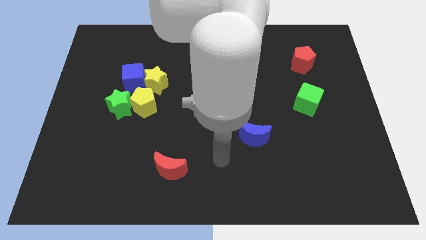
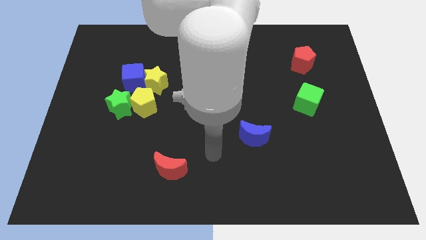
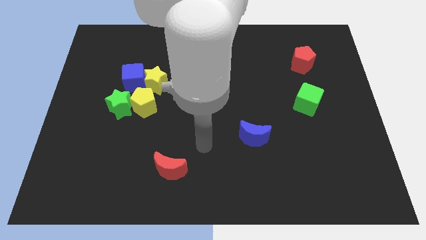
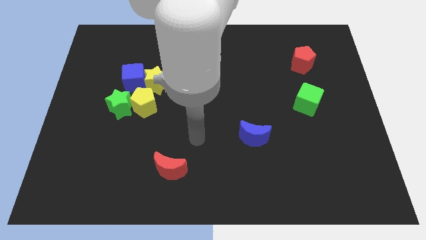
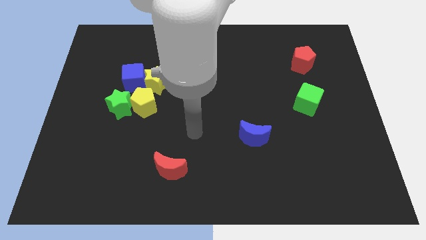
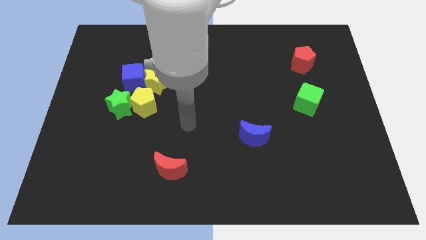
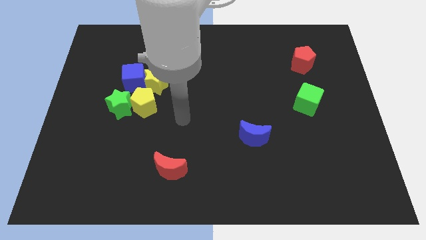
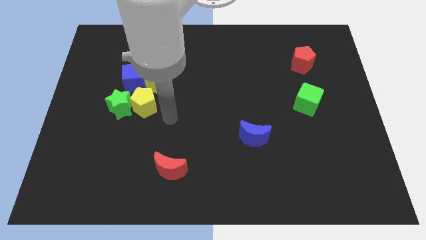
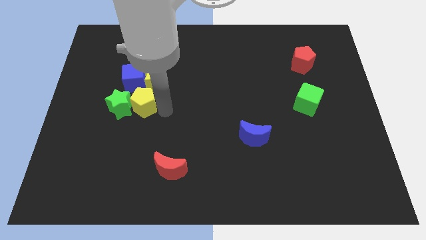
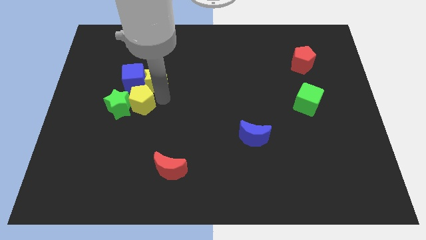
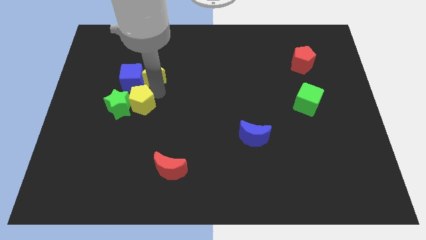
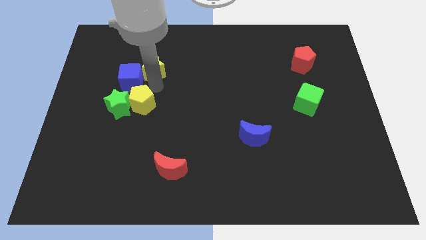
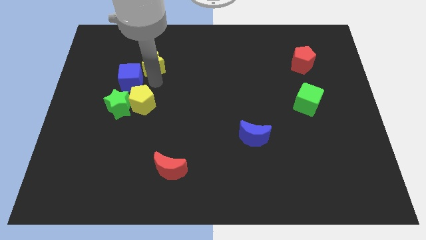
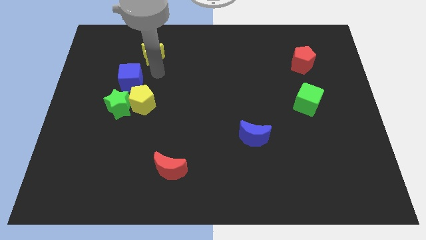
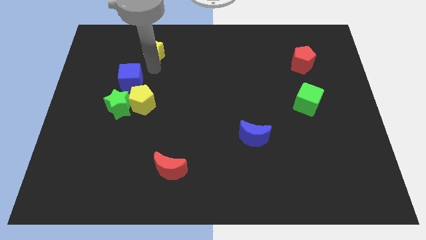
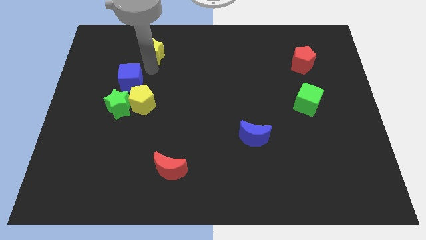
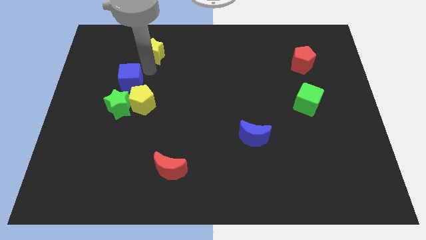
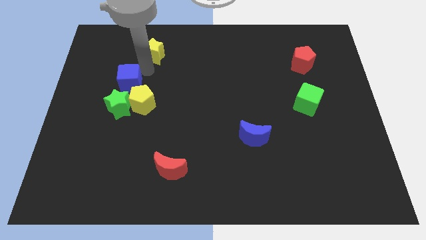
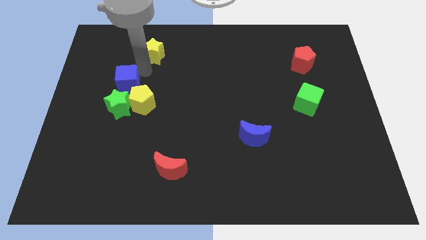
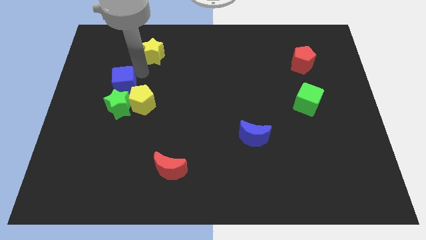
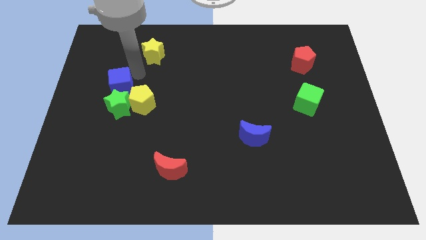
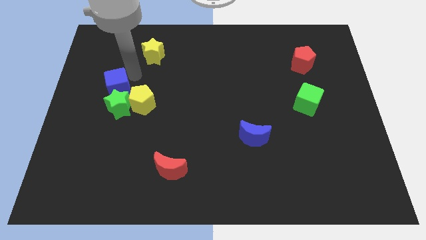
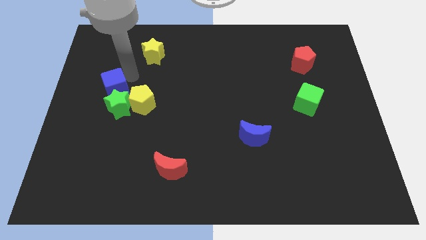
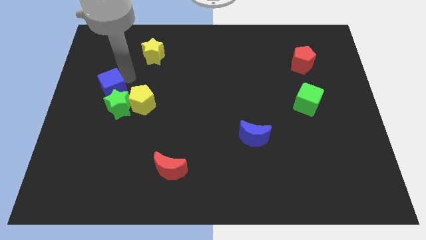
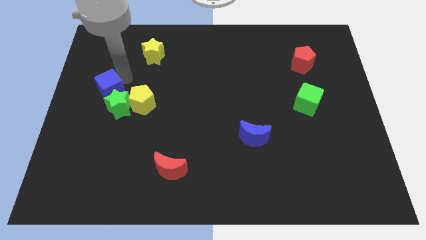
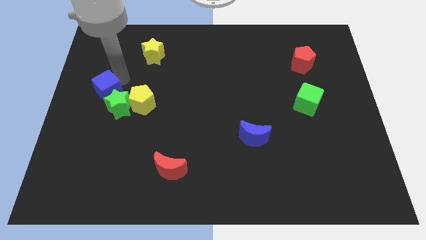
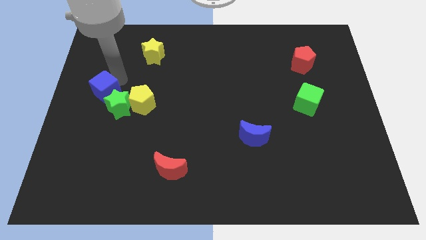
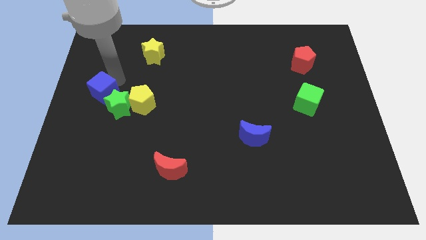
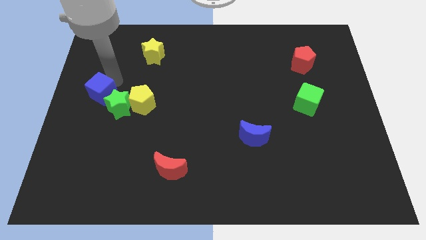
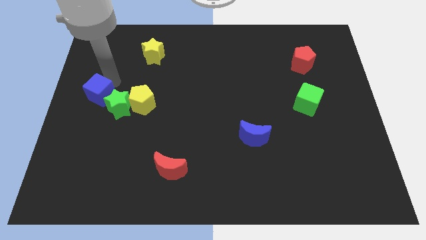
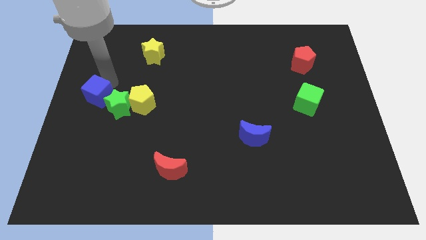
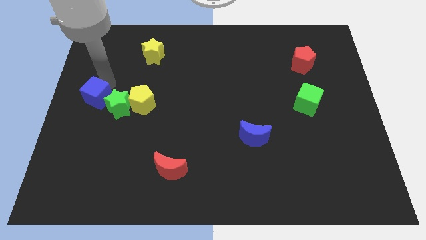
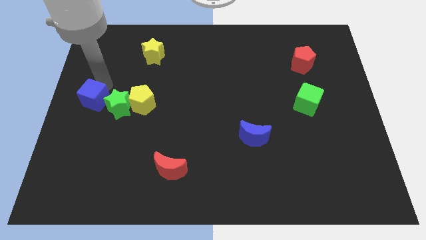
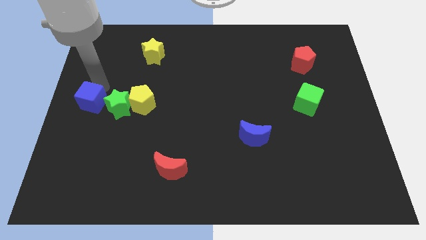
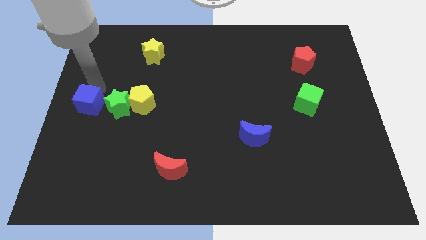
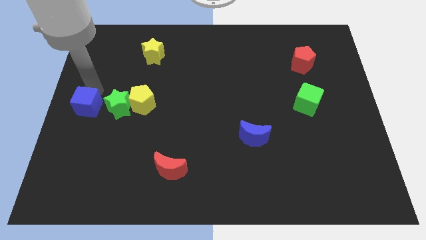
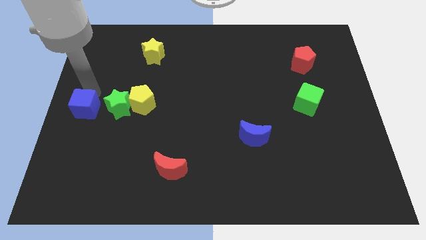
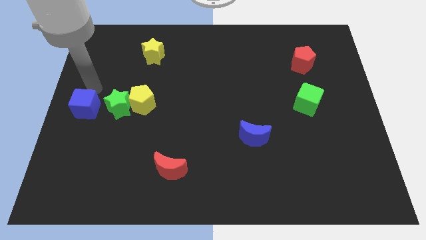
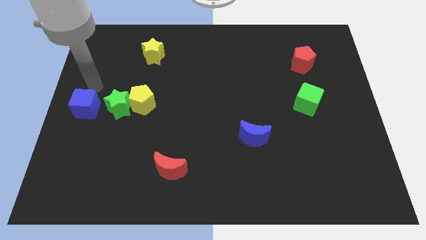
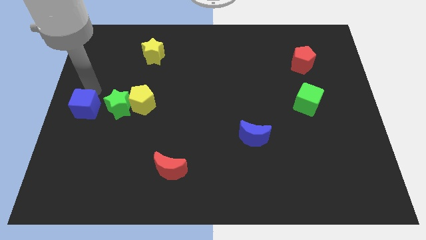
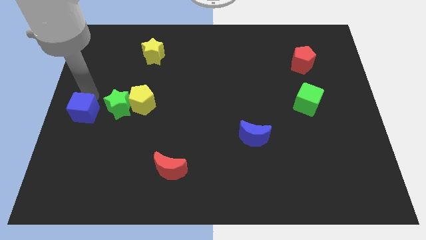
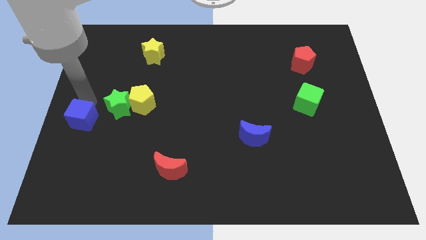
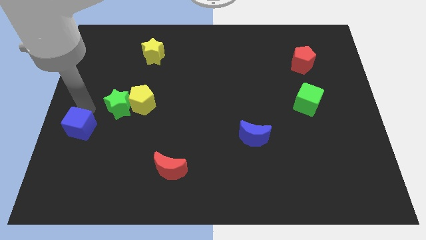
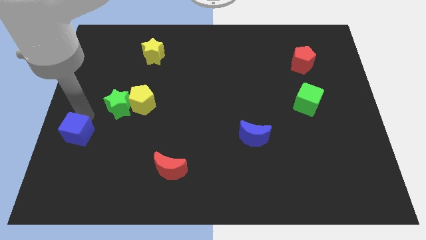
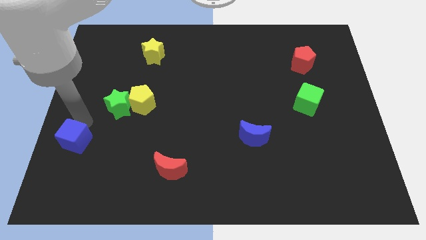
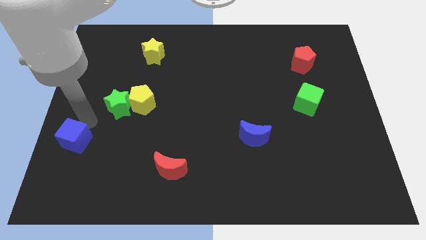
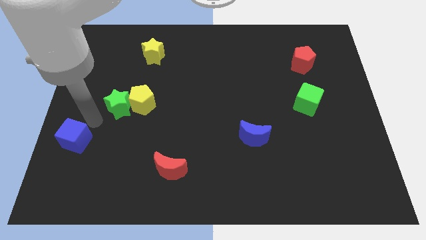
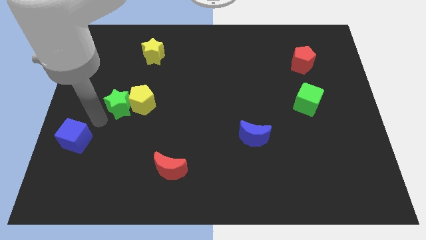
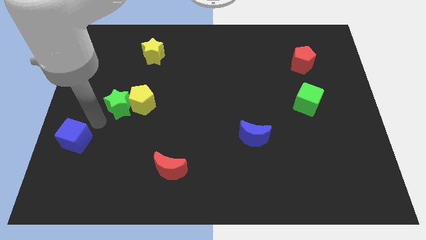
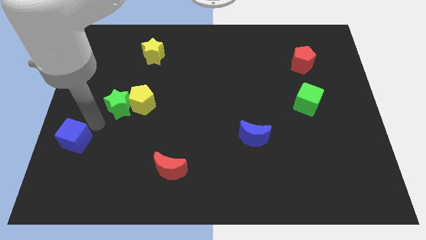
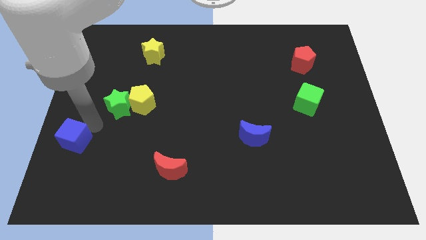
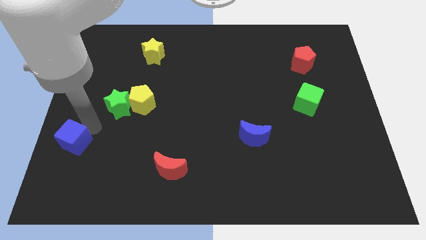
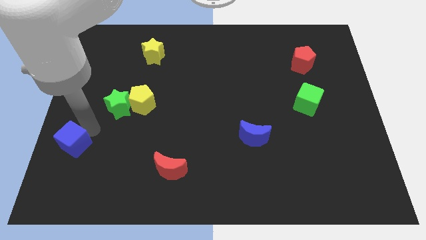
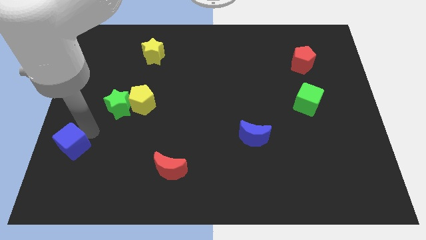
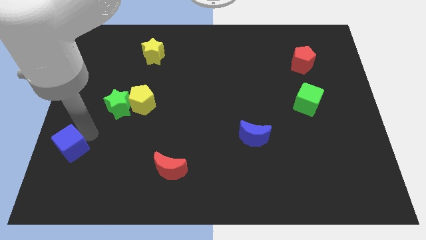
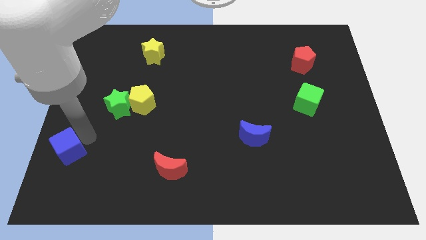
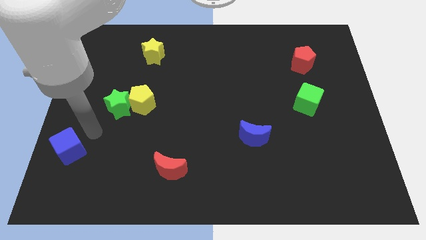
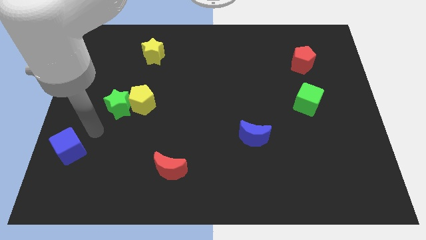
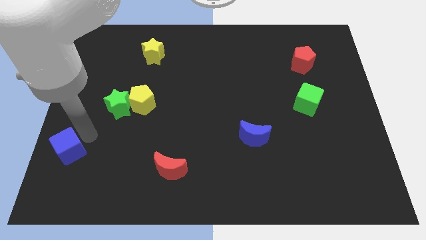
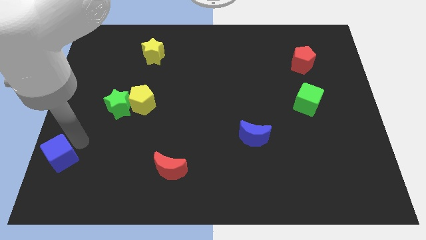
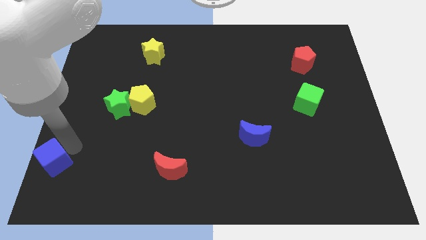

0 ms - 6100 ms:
put the blue cube to the bottom left
